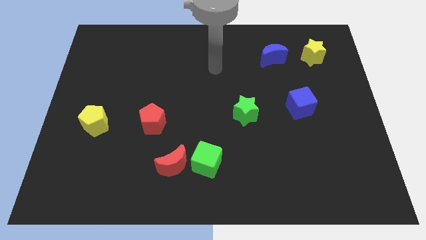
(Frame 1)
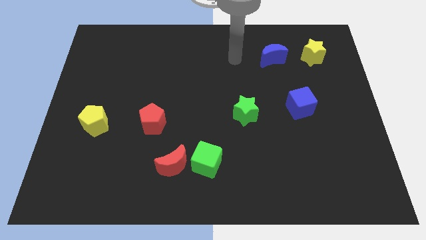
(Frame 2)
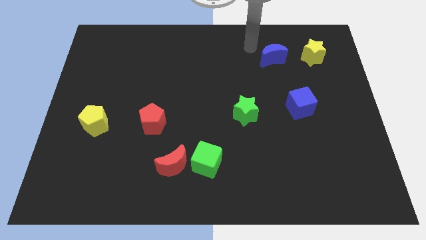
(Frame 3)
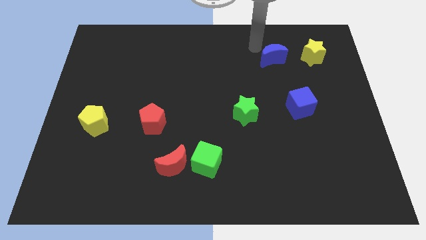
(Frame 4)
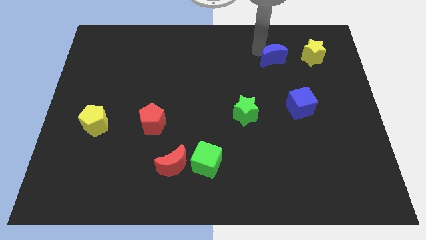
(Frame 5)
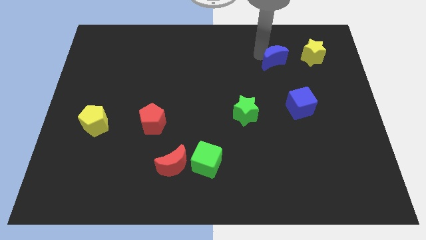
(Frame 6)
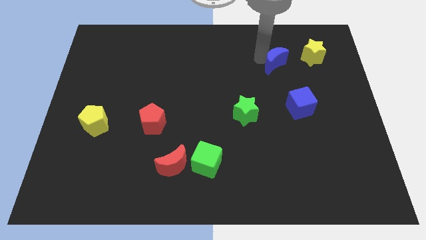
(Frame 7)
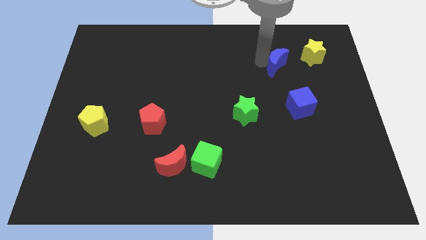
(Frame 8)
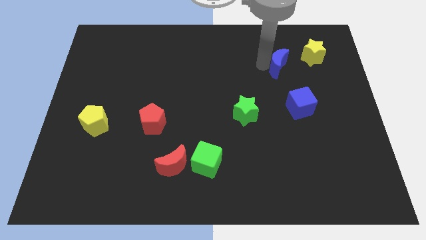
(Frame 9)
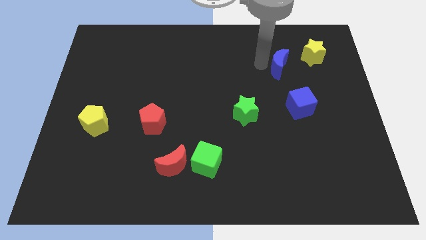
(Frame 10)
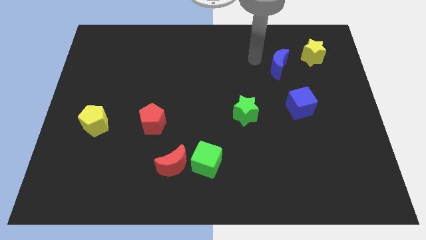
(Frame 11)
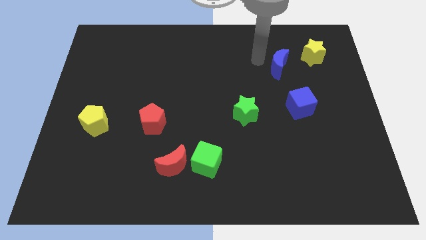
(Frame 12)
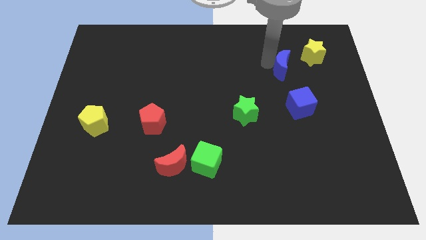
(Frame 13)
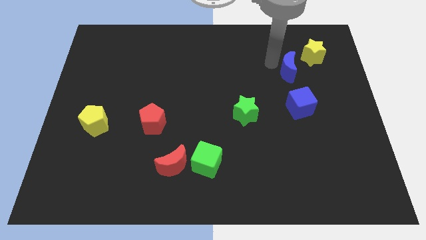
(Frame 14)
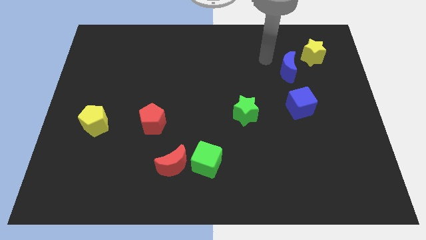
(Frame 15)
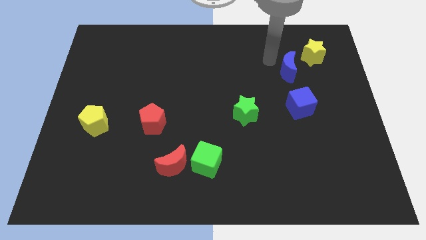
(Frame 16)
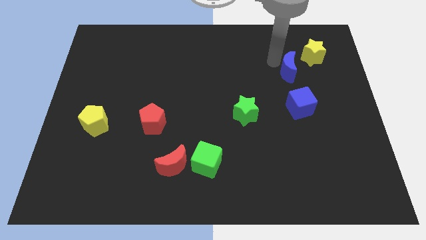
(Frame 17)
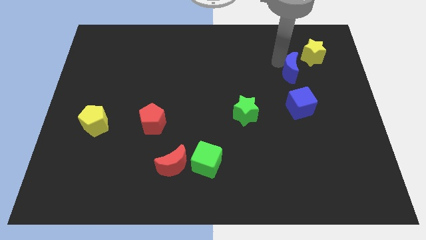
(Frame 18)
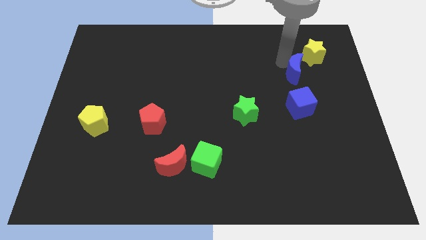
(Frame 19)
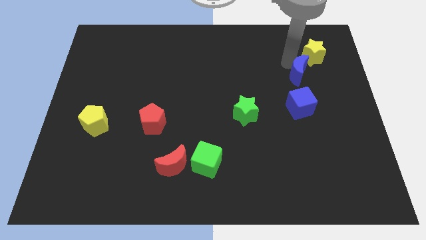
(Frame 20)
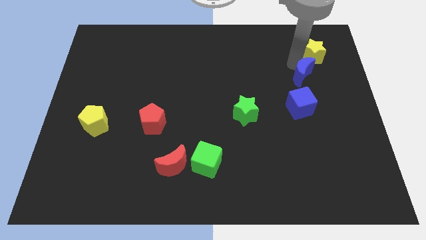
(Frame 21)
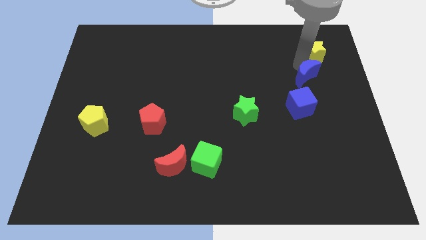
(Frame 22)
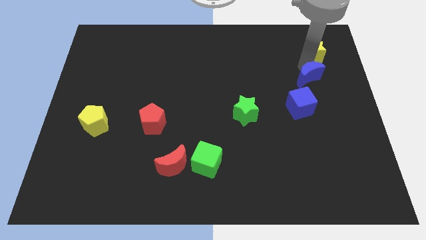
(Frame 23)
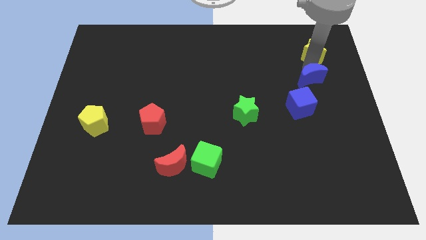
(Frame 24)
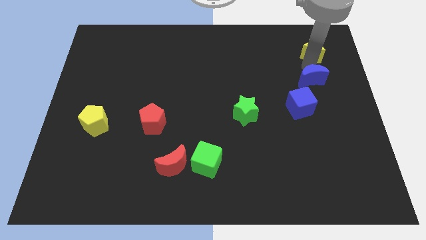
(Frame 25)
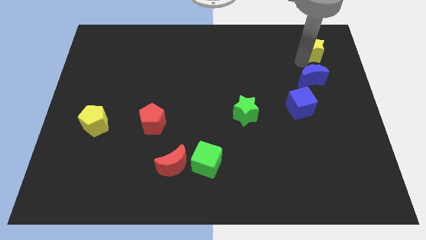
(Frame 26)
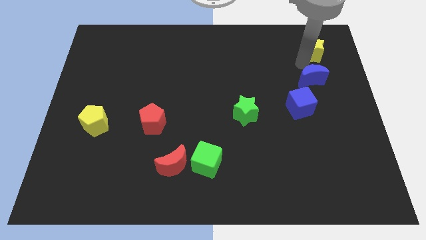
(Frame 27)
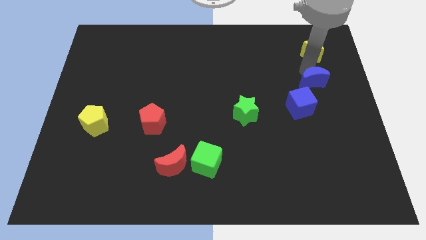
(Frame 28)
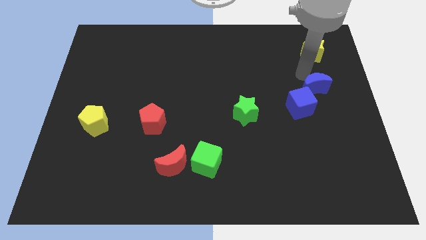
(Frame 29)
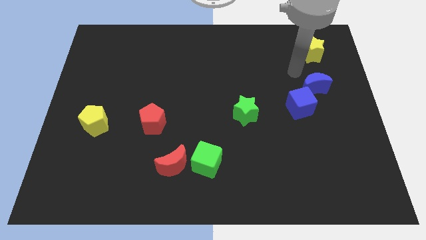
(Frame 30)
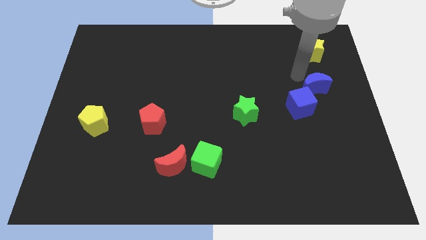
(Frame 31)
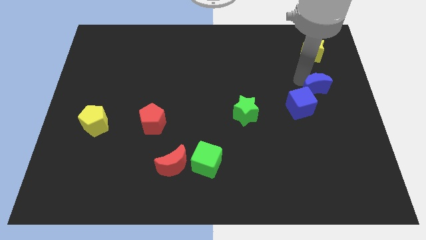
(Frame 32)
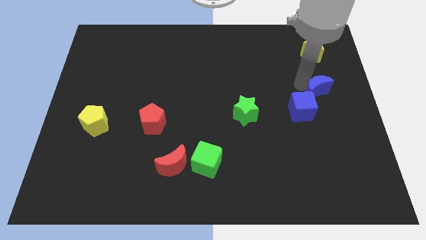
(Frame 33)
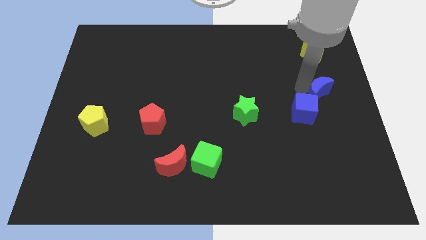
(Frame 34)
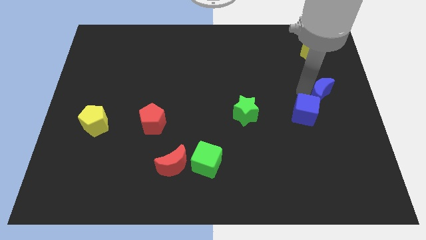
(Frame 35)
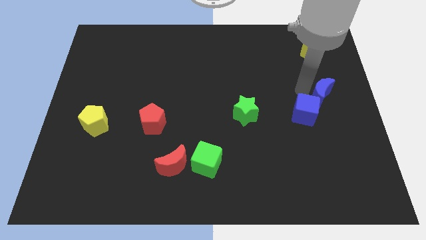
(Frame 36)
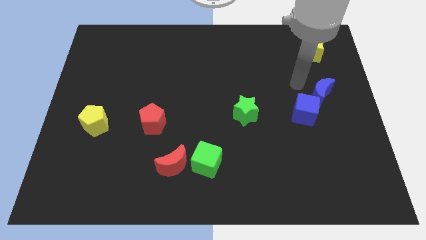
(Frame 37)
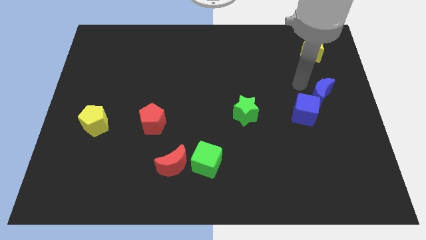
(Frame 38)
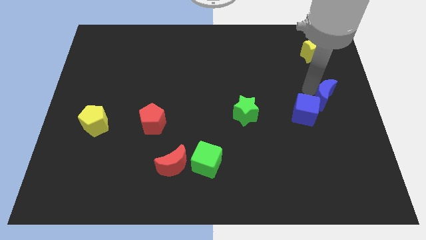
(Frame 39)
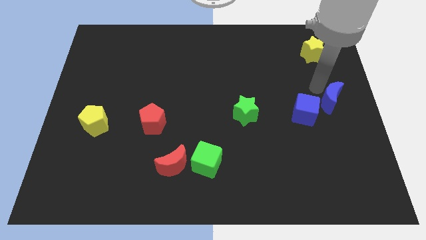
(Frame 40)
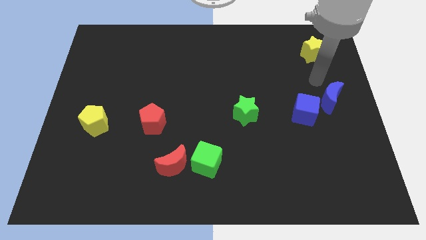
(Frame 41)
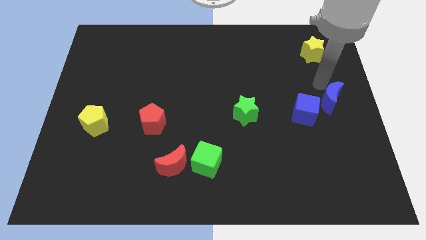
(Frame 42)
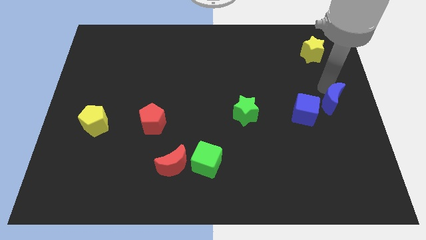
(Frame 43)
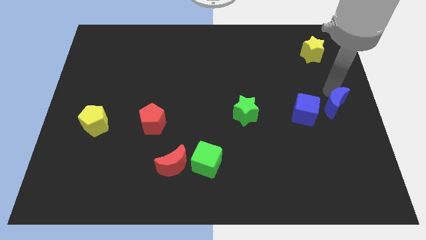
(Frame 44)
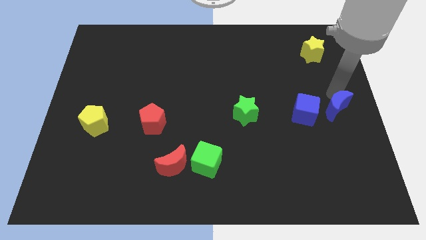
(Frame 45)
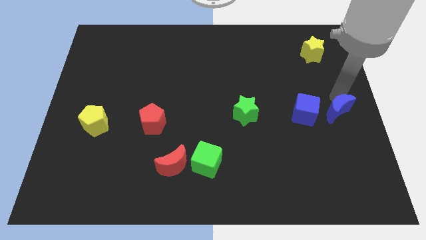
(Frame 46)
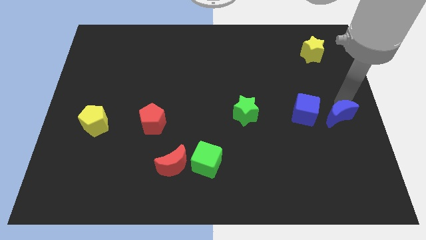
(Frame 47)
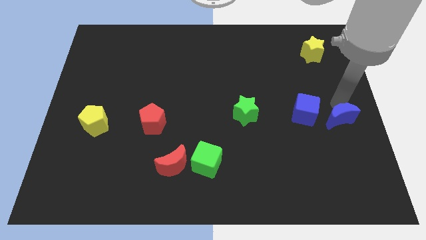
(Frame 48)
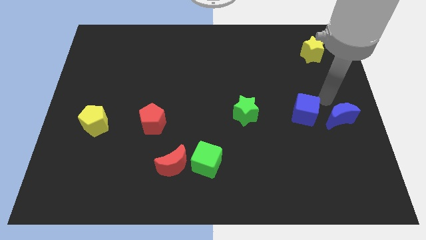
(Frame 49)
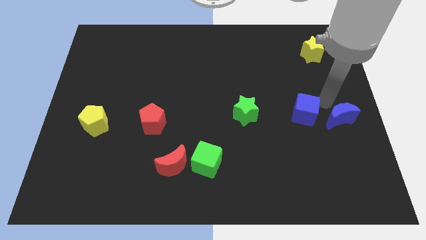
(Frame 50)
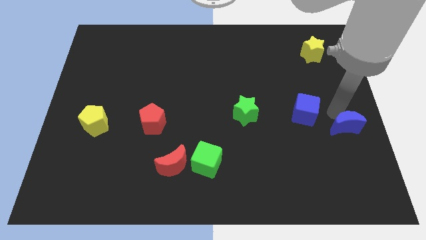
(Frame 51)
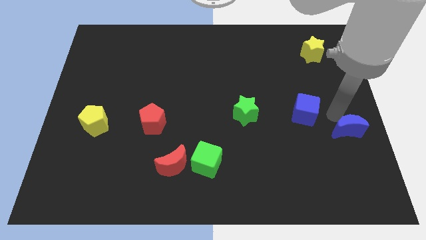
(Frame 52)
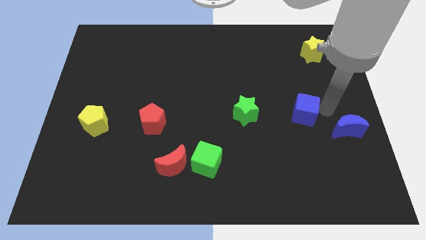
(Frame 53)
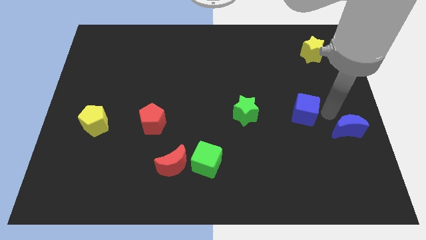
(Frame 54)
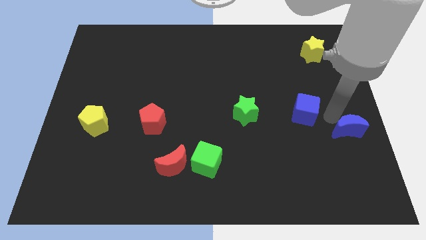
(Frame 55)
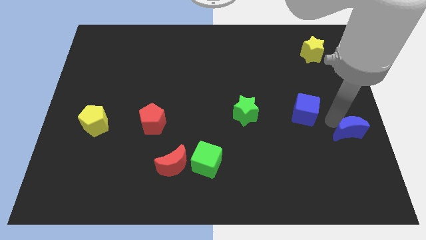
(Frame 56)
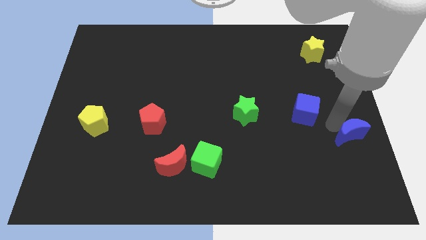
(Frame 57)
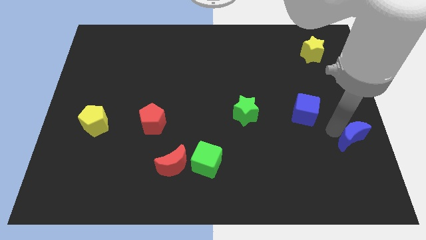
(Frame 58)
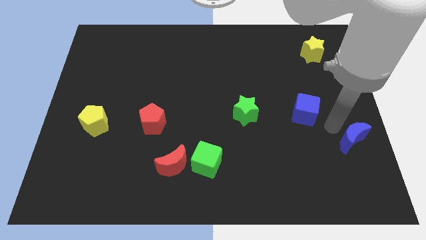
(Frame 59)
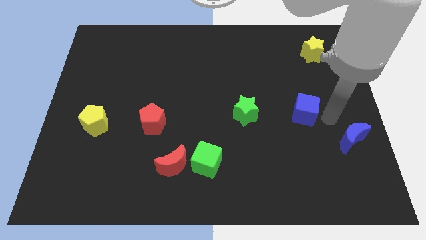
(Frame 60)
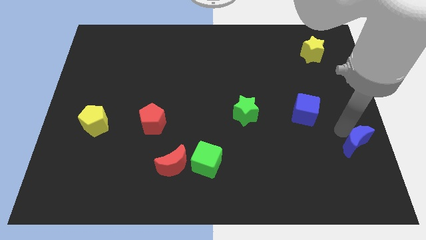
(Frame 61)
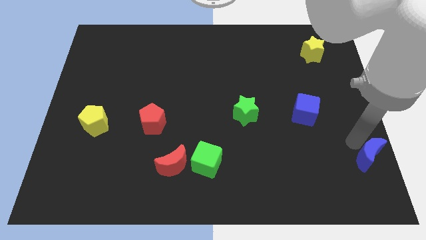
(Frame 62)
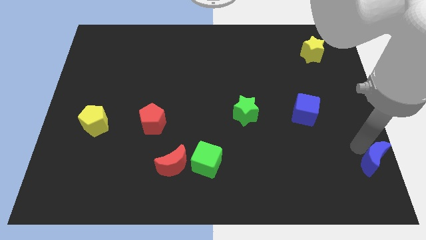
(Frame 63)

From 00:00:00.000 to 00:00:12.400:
put the blue moon to the lower right corner

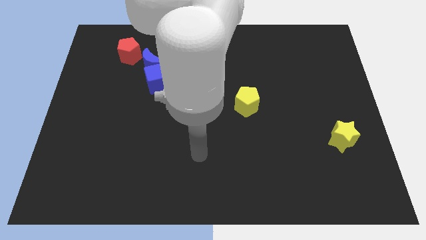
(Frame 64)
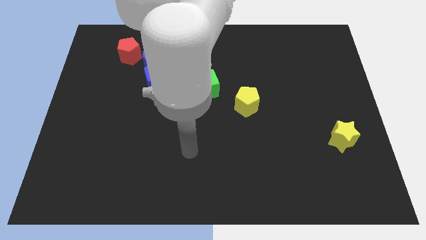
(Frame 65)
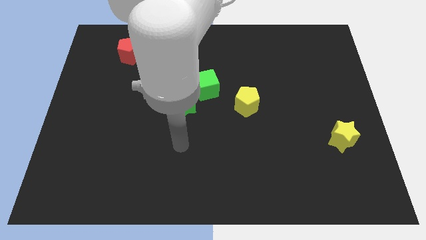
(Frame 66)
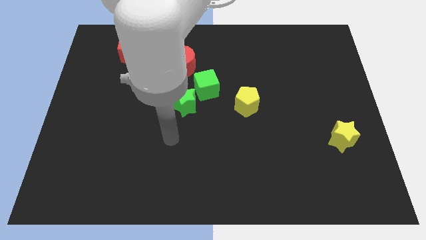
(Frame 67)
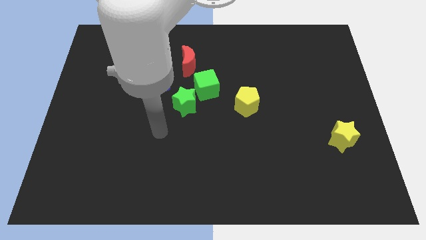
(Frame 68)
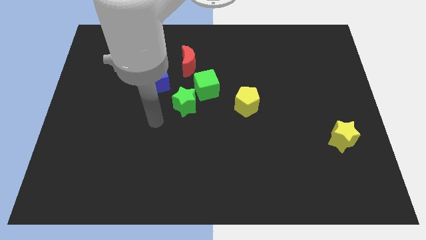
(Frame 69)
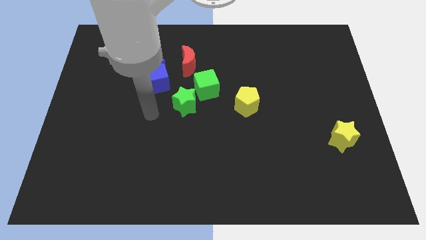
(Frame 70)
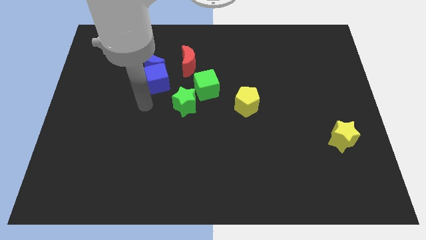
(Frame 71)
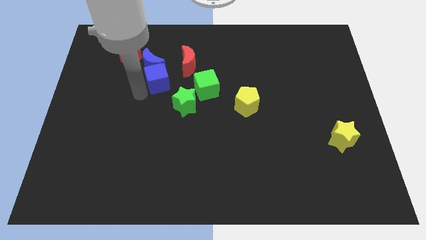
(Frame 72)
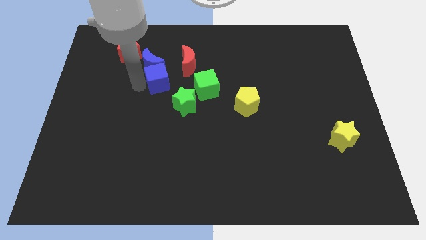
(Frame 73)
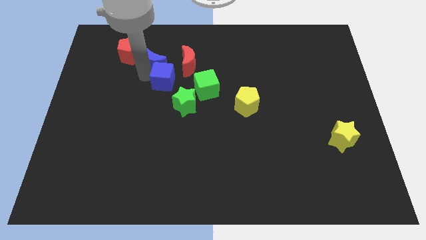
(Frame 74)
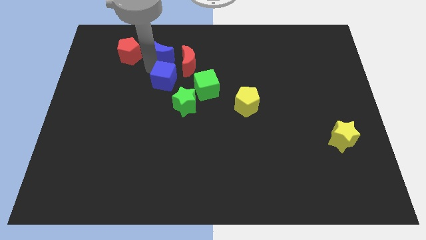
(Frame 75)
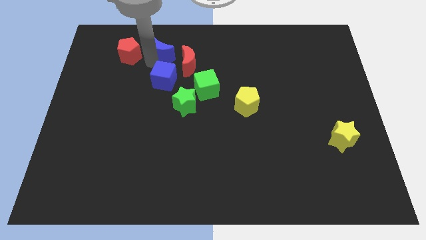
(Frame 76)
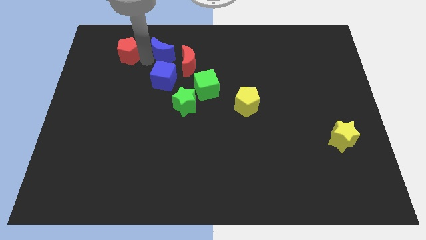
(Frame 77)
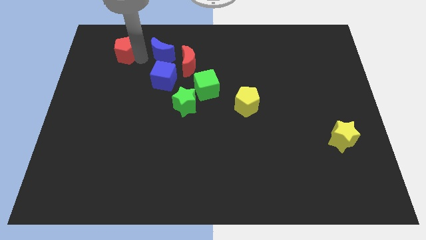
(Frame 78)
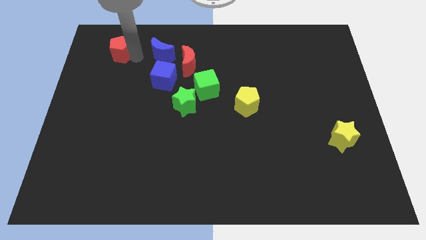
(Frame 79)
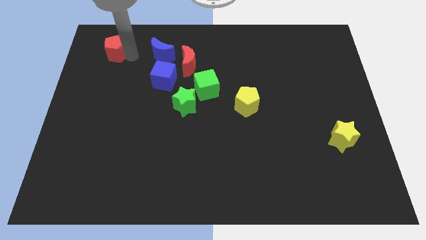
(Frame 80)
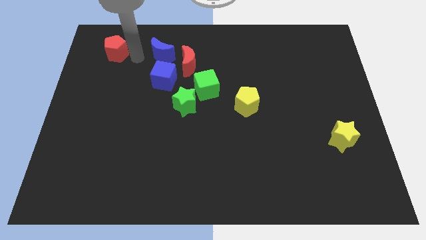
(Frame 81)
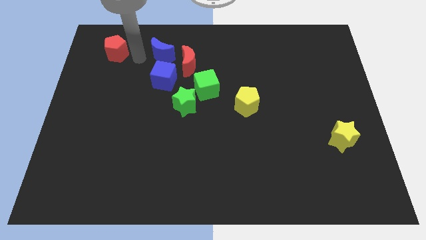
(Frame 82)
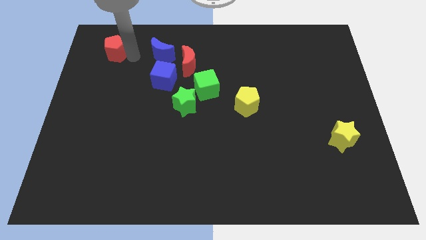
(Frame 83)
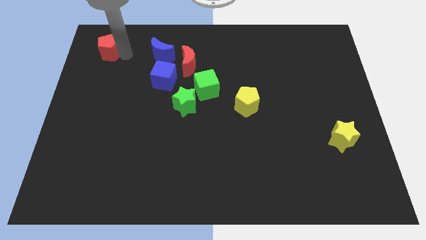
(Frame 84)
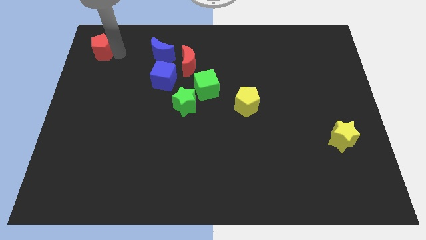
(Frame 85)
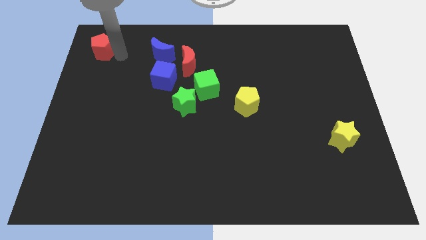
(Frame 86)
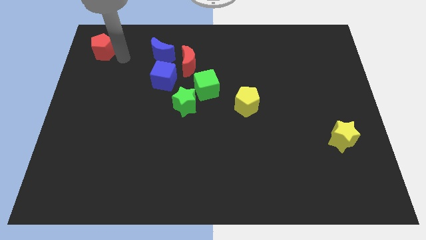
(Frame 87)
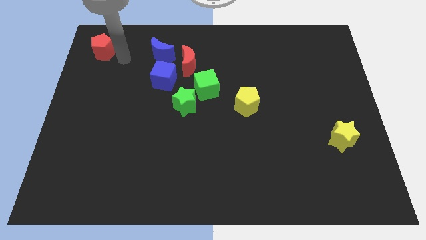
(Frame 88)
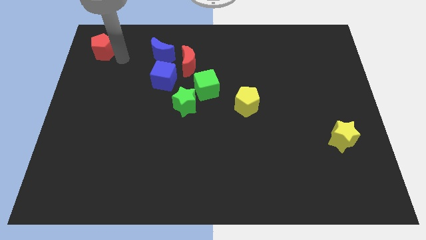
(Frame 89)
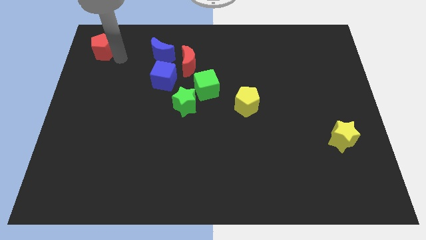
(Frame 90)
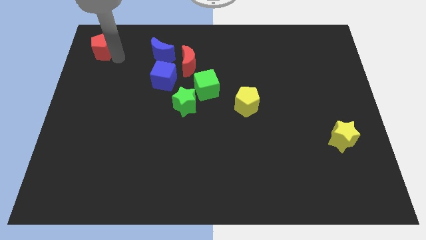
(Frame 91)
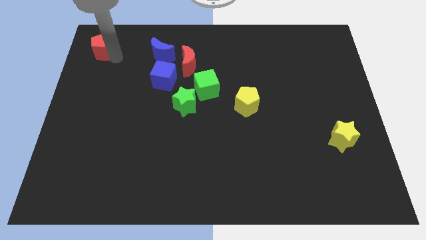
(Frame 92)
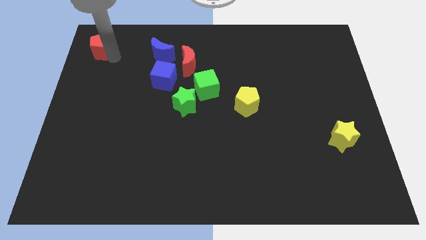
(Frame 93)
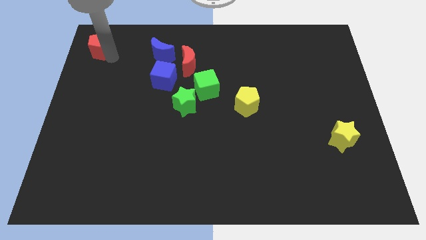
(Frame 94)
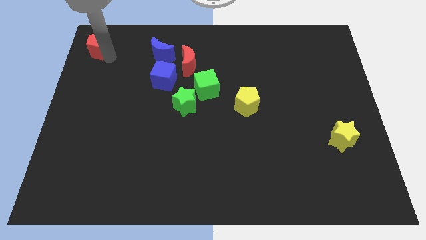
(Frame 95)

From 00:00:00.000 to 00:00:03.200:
move the red pentagon to the top left of the board
